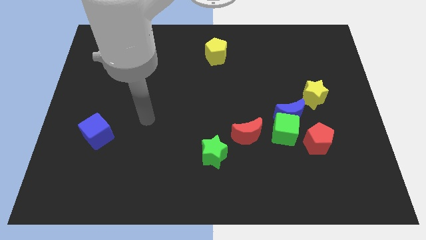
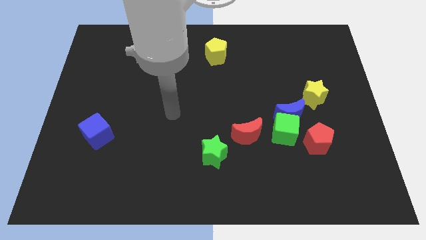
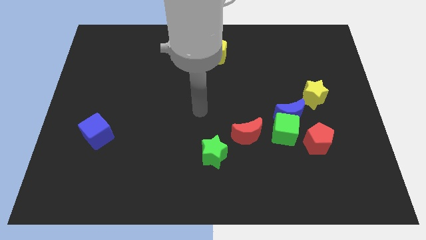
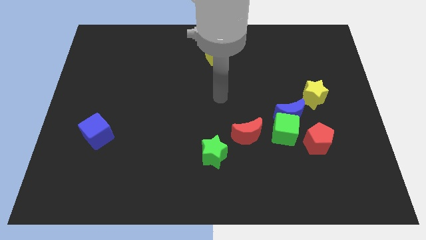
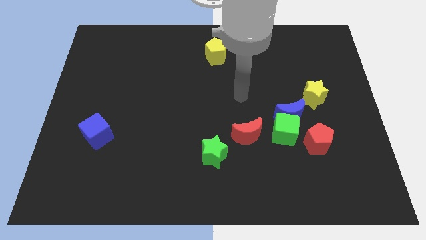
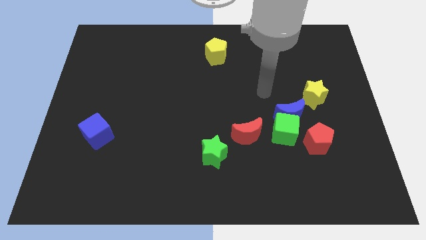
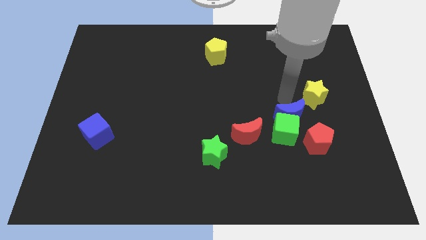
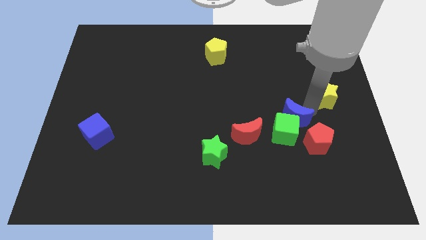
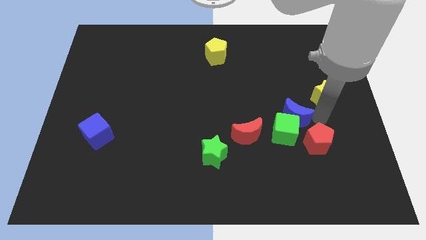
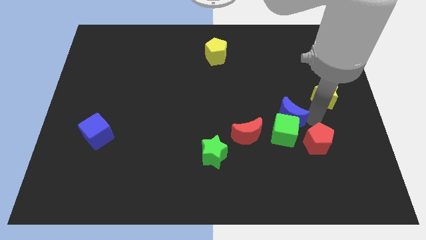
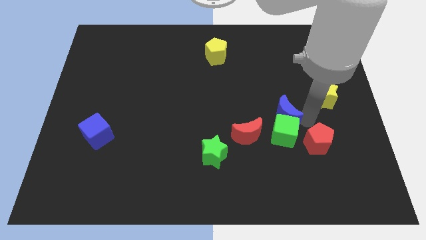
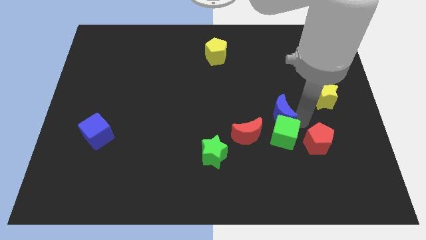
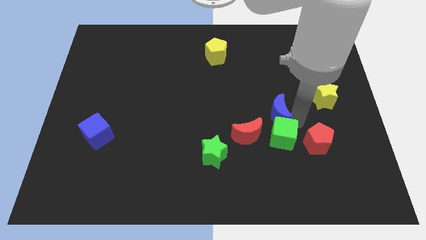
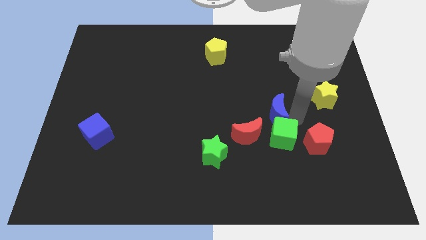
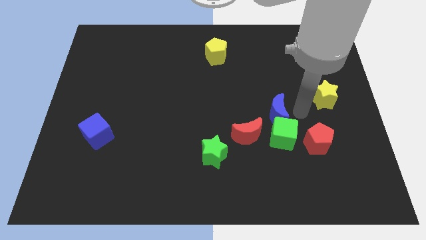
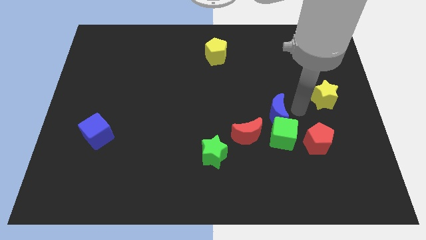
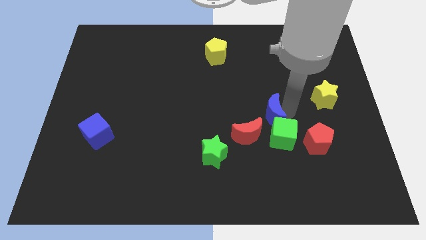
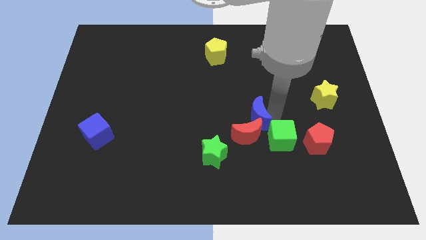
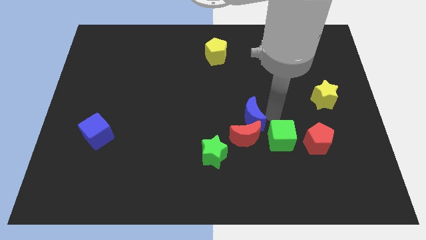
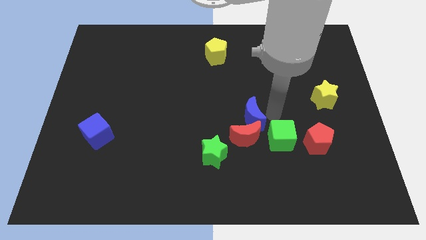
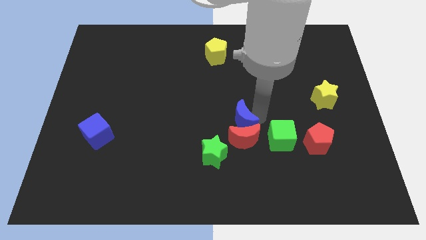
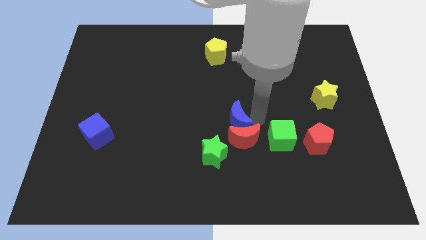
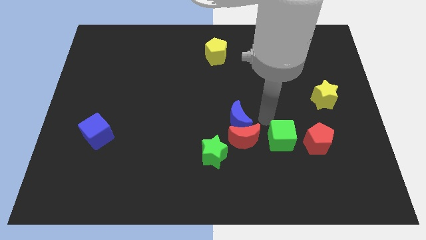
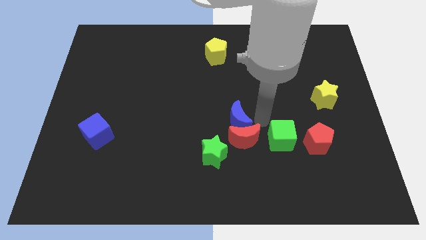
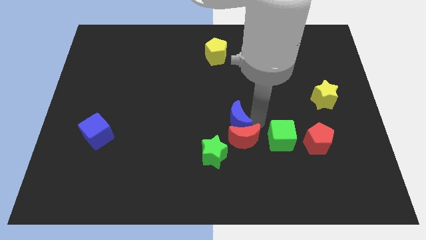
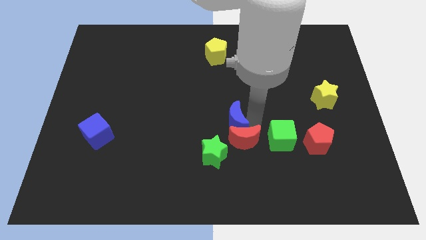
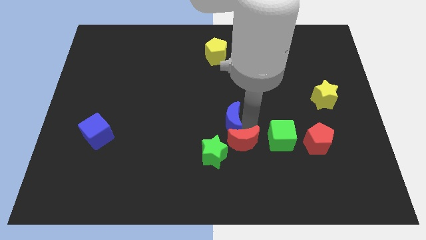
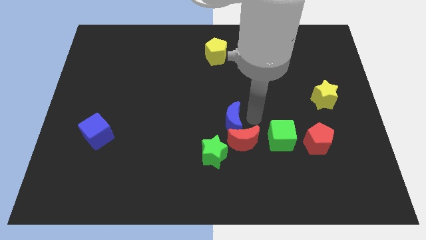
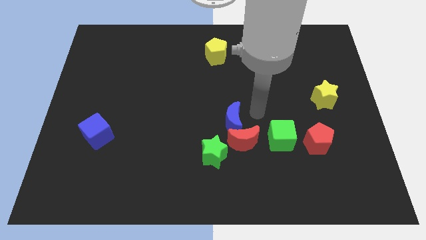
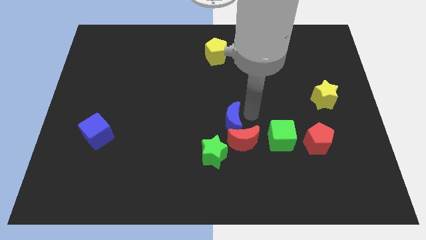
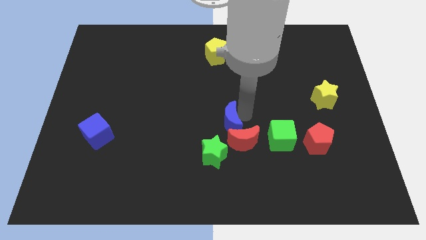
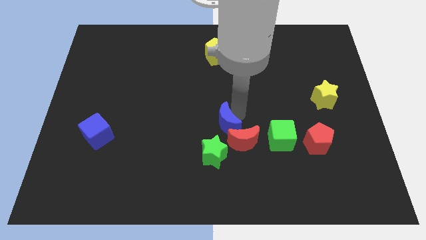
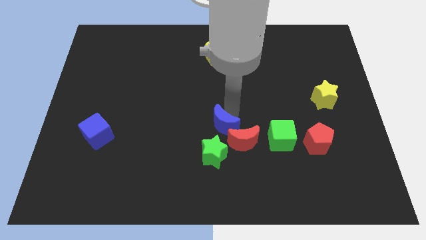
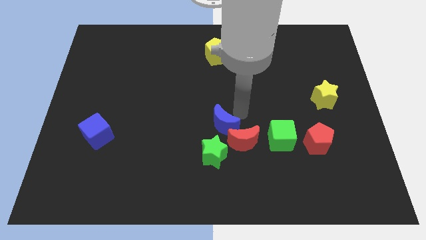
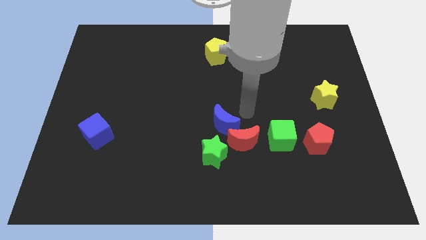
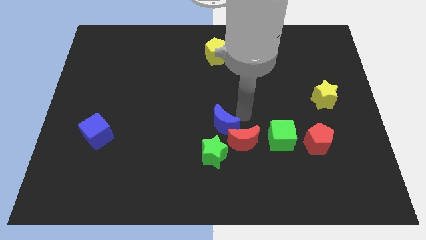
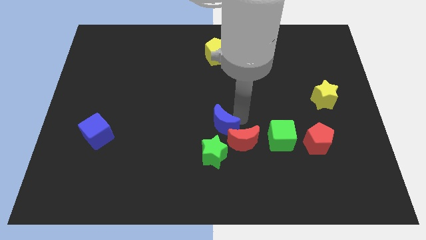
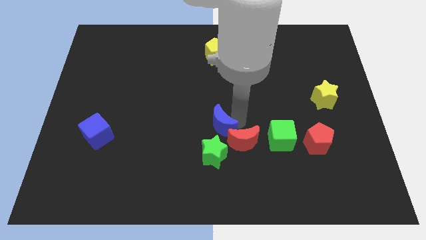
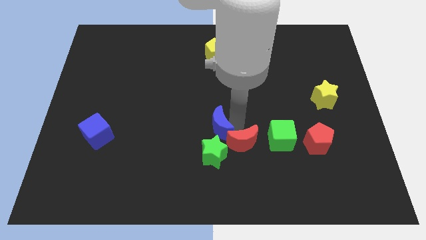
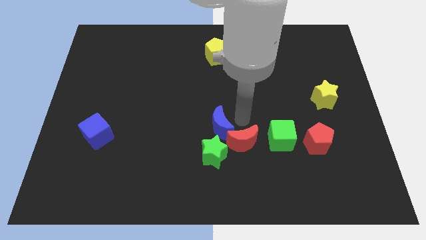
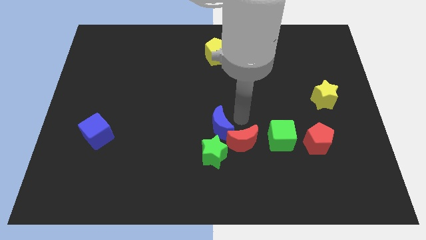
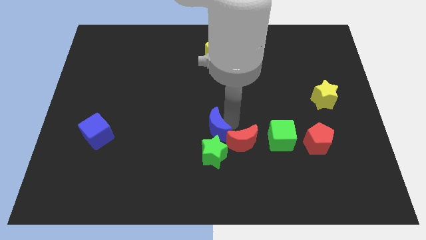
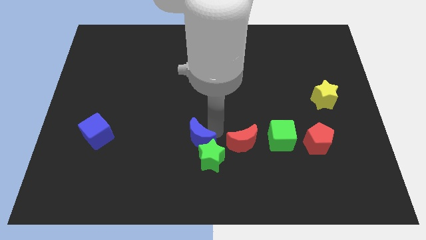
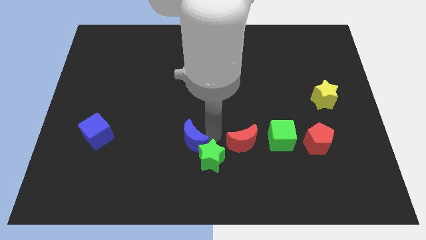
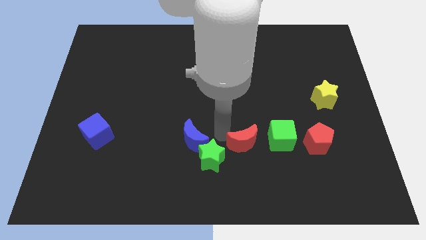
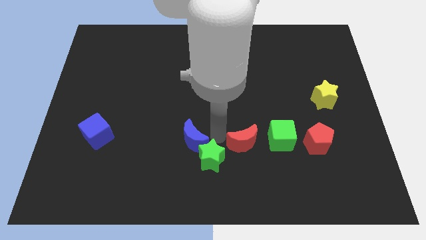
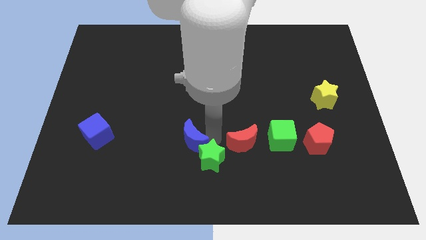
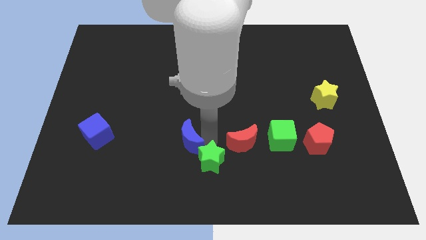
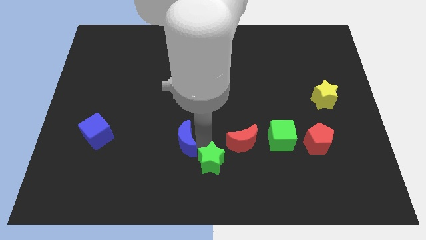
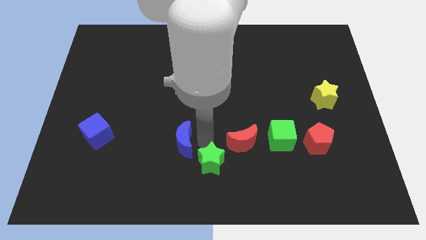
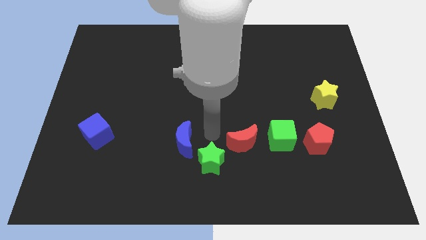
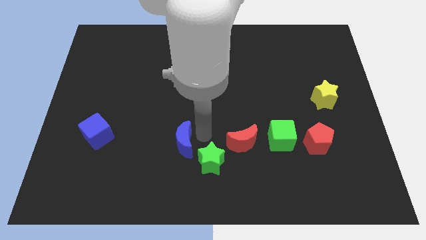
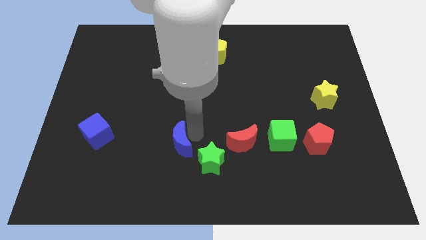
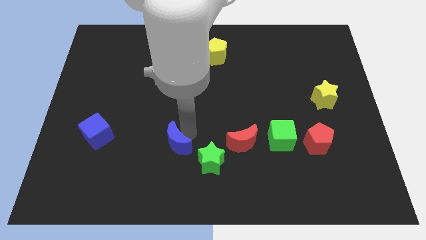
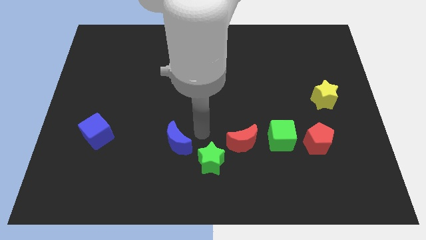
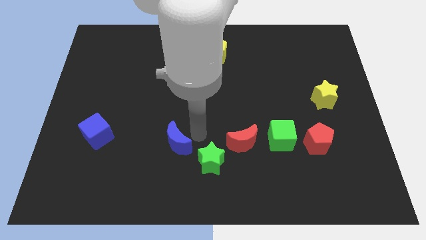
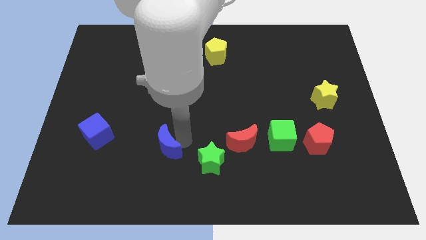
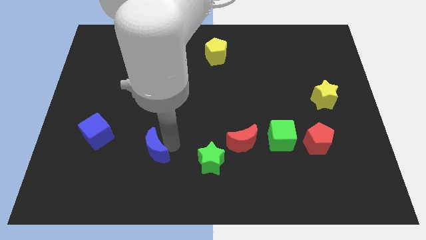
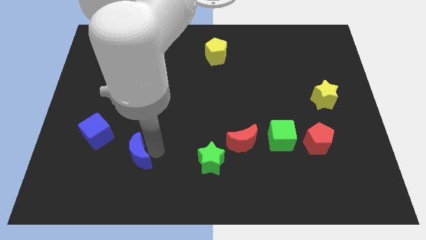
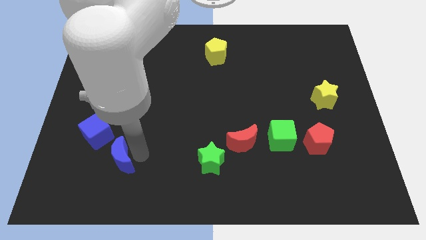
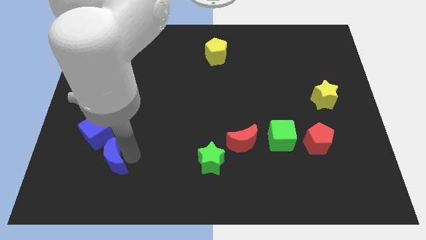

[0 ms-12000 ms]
move the blue moon to the bottom of the blue cube
